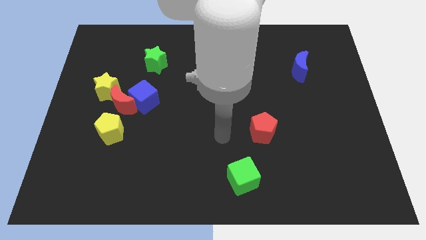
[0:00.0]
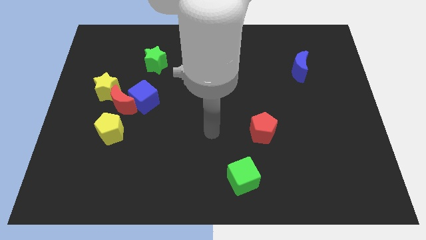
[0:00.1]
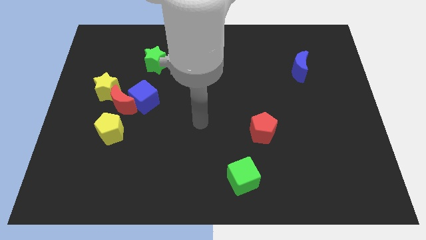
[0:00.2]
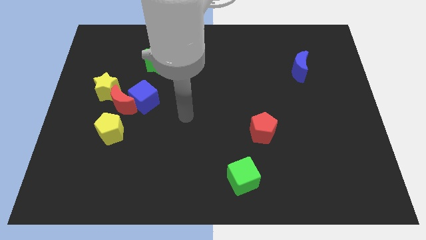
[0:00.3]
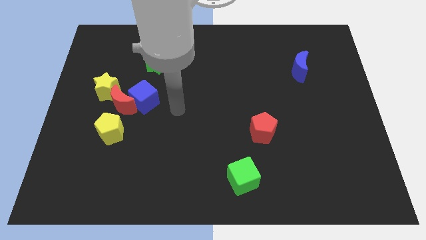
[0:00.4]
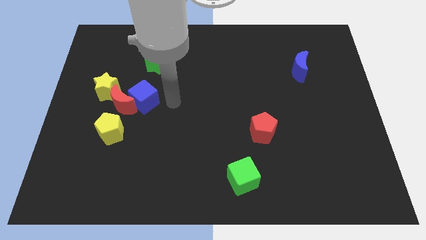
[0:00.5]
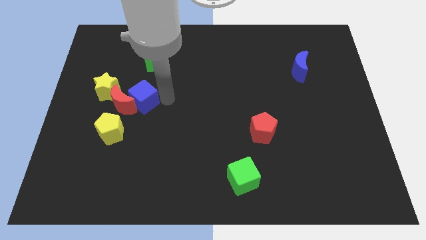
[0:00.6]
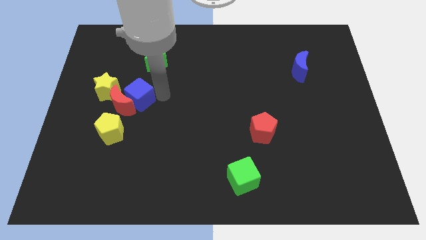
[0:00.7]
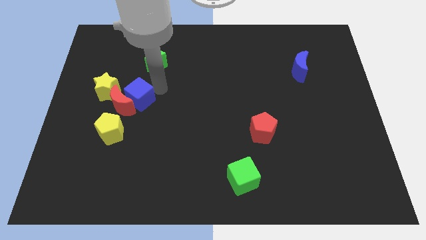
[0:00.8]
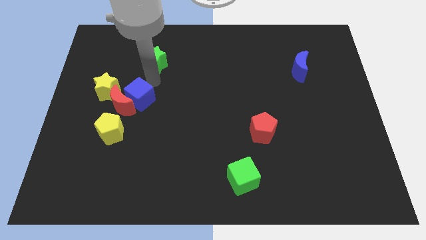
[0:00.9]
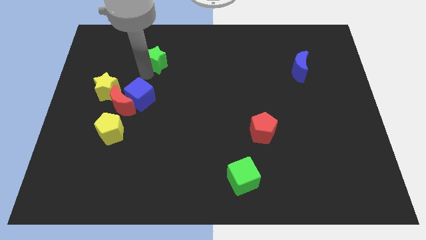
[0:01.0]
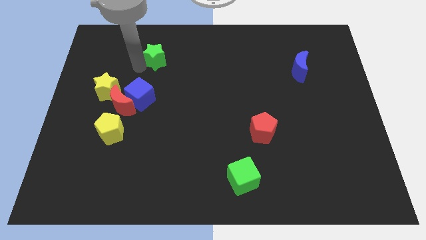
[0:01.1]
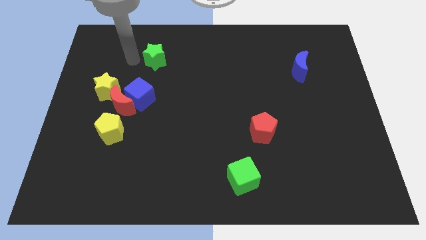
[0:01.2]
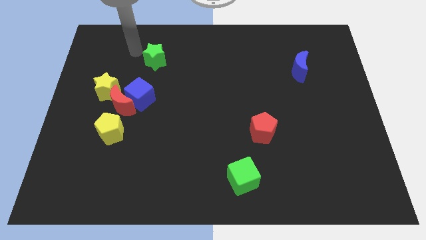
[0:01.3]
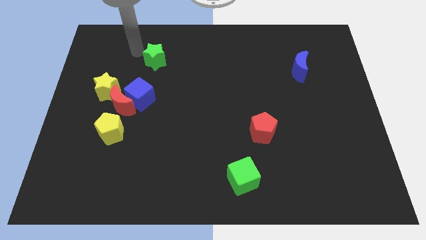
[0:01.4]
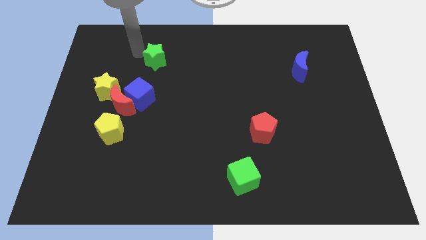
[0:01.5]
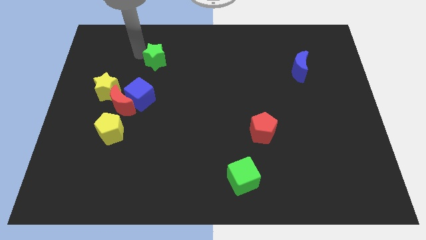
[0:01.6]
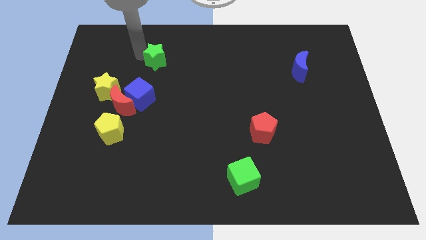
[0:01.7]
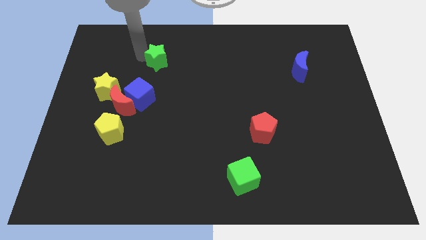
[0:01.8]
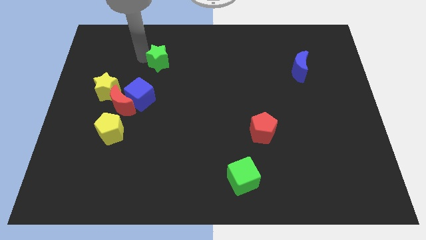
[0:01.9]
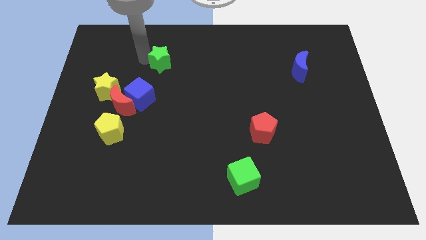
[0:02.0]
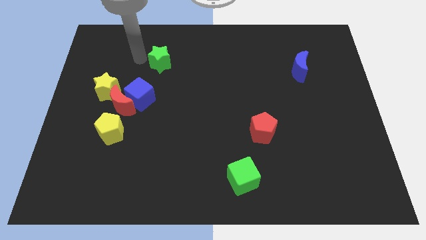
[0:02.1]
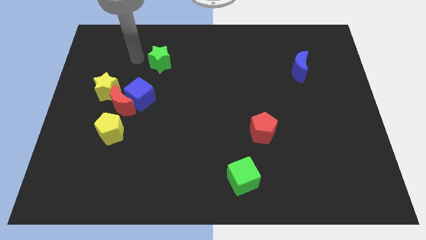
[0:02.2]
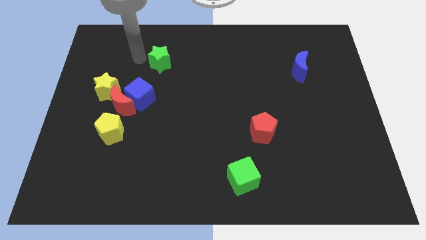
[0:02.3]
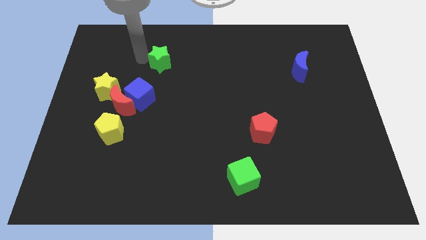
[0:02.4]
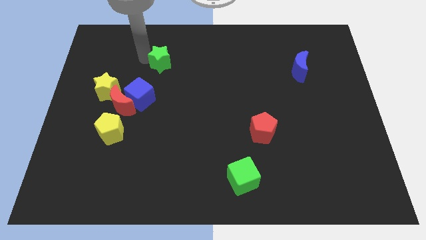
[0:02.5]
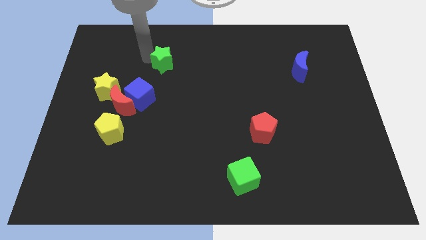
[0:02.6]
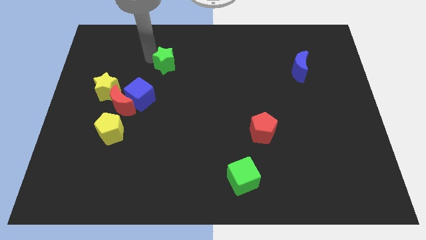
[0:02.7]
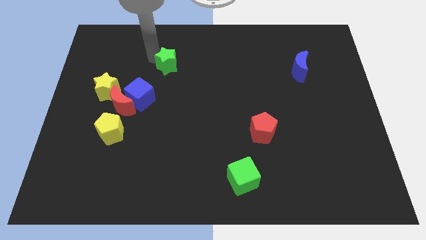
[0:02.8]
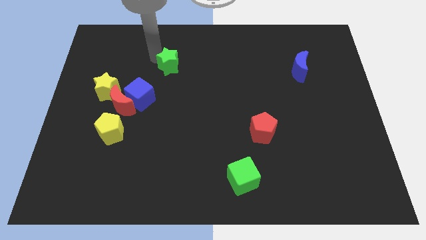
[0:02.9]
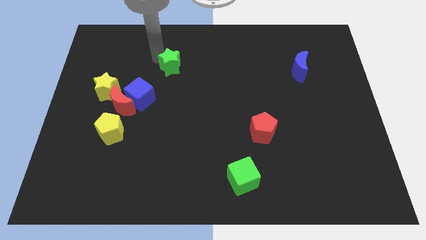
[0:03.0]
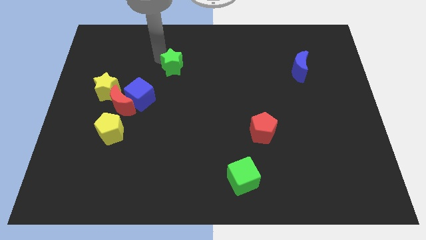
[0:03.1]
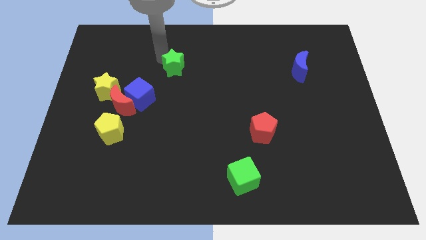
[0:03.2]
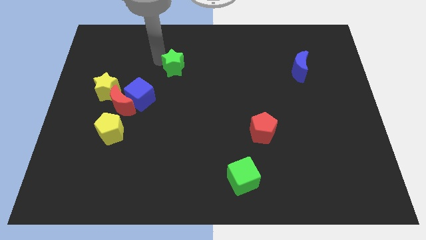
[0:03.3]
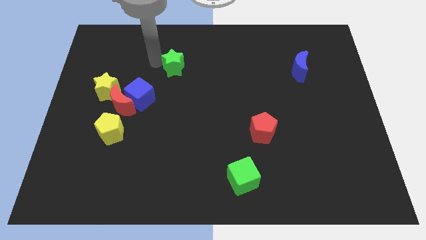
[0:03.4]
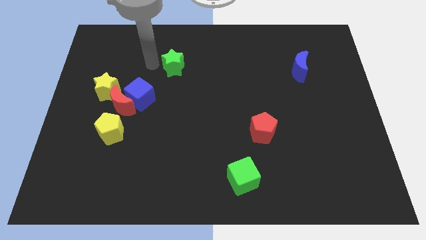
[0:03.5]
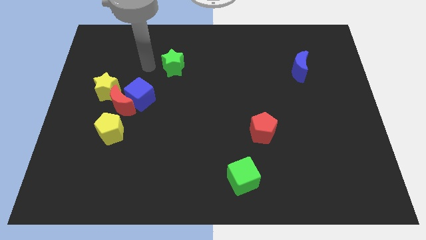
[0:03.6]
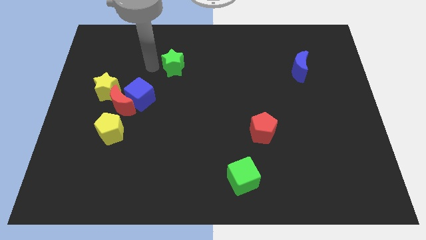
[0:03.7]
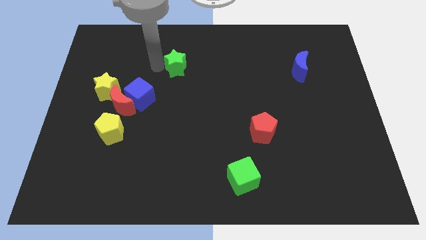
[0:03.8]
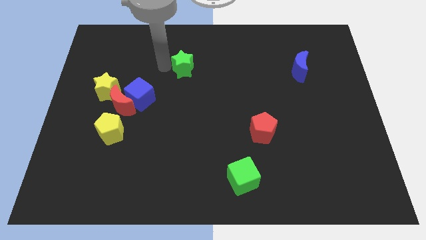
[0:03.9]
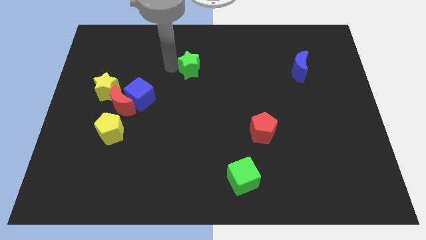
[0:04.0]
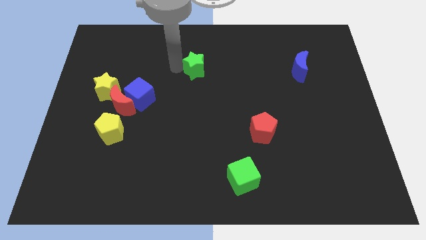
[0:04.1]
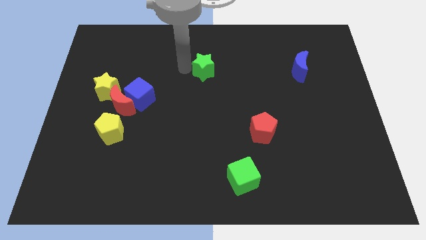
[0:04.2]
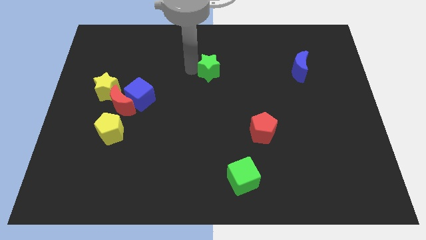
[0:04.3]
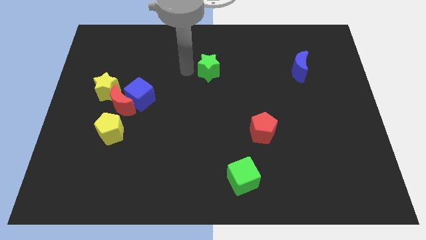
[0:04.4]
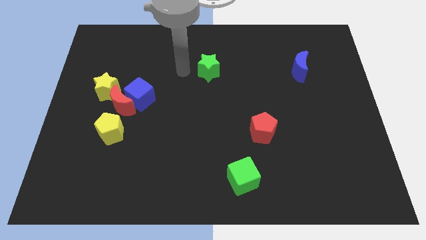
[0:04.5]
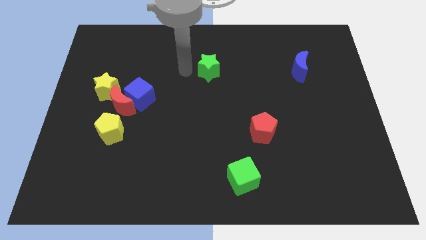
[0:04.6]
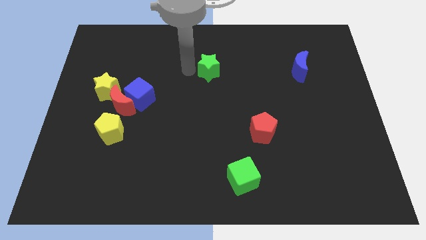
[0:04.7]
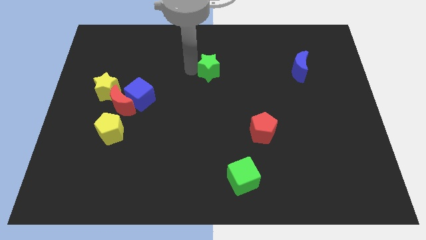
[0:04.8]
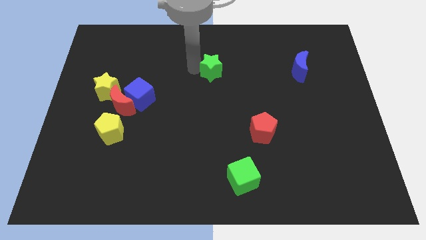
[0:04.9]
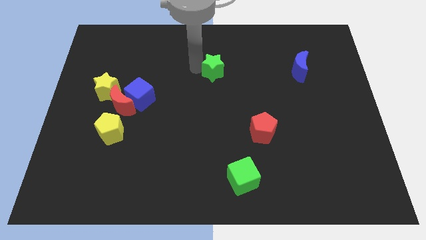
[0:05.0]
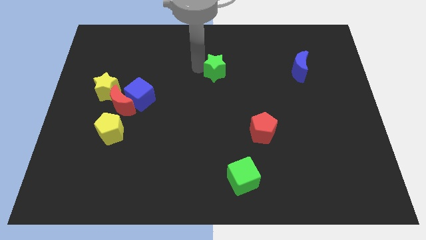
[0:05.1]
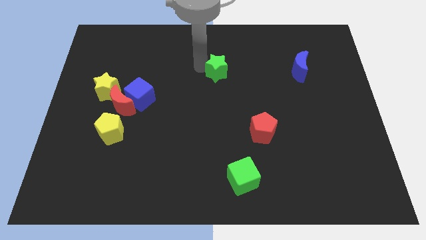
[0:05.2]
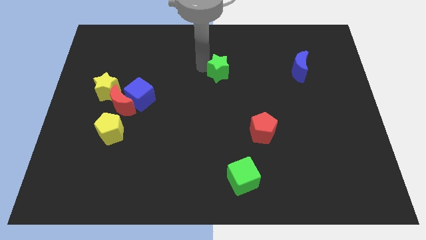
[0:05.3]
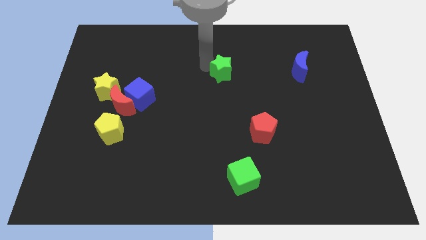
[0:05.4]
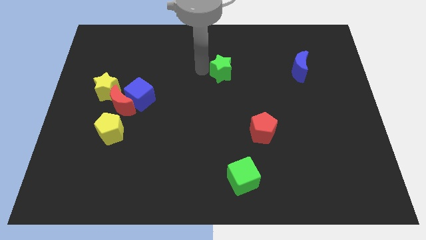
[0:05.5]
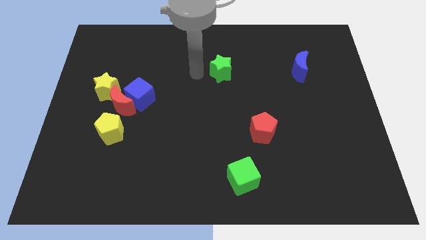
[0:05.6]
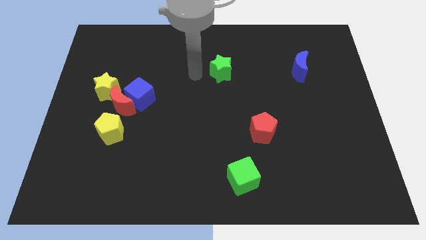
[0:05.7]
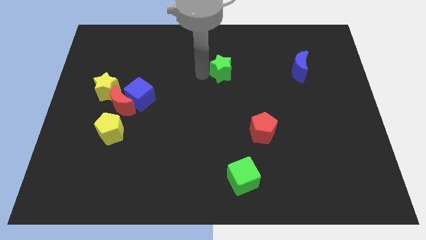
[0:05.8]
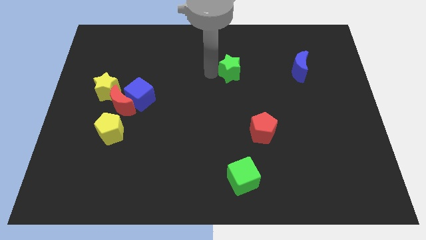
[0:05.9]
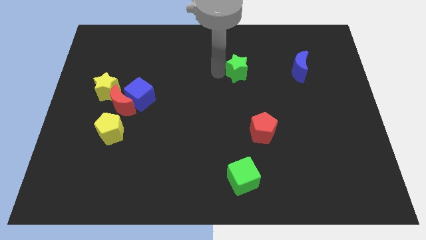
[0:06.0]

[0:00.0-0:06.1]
slide the green star to the right

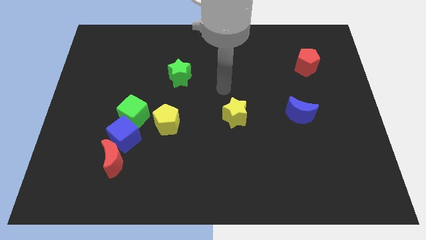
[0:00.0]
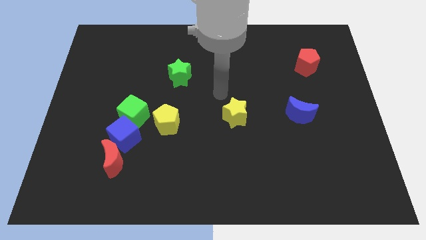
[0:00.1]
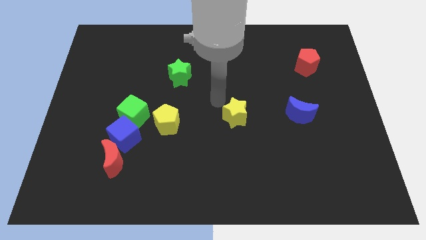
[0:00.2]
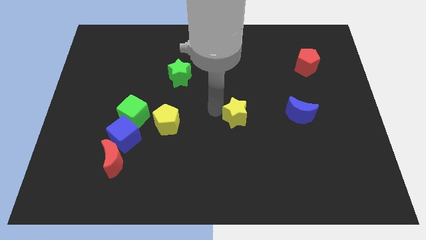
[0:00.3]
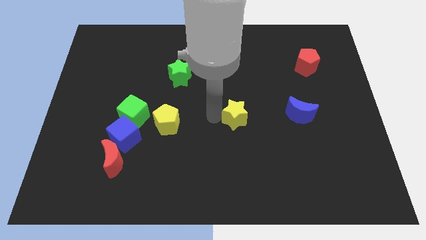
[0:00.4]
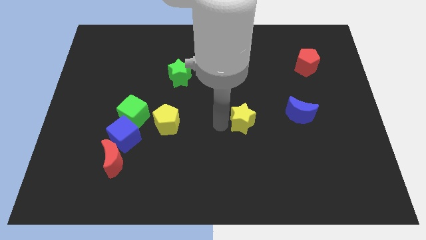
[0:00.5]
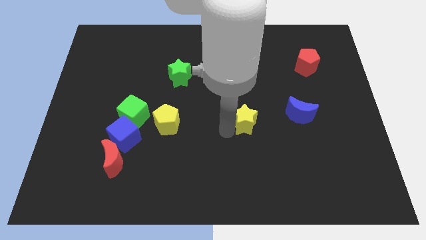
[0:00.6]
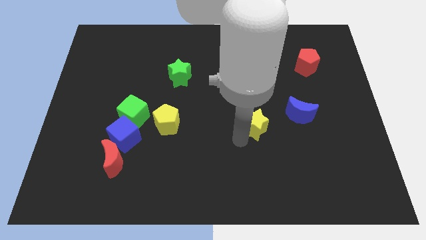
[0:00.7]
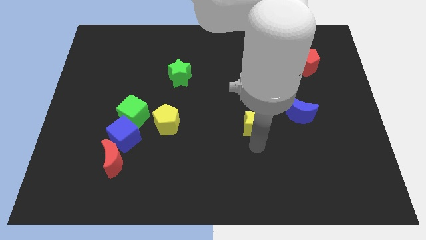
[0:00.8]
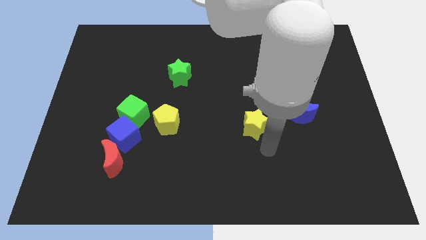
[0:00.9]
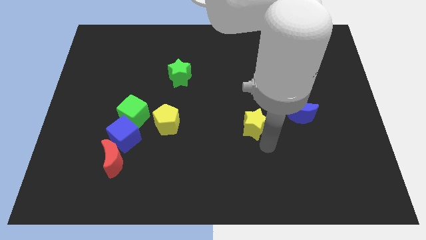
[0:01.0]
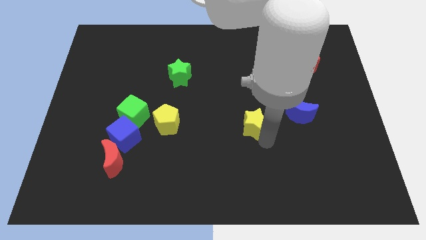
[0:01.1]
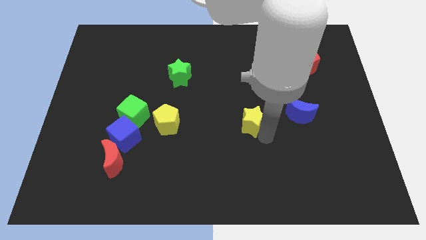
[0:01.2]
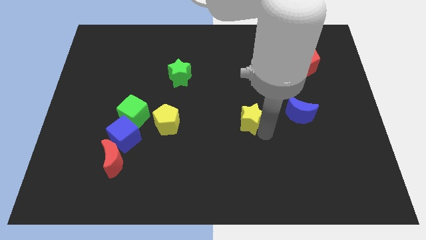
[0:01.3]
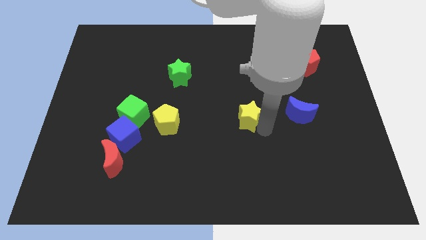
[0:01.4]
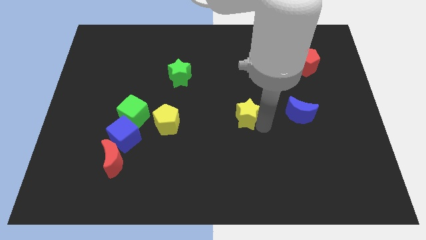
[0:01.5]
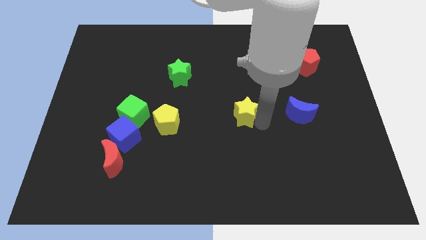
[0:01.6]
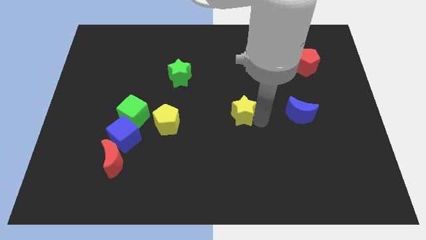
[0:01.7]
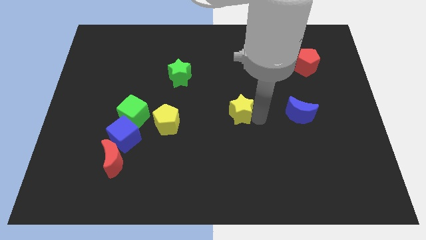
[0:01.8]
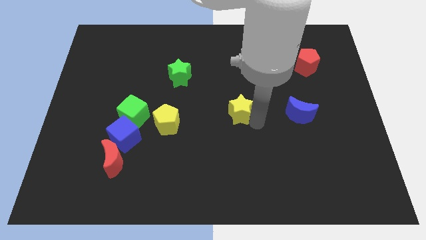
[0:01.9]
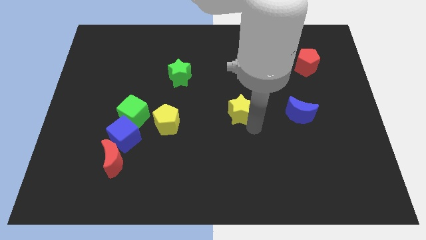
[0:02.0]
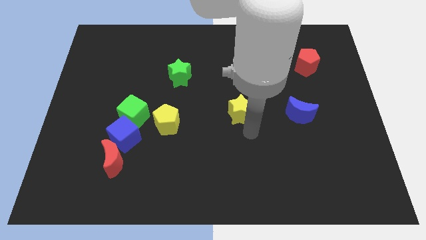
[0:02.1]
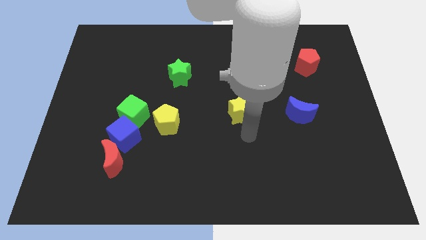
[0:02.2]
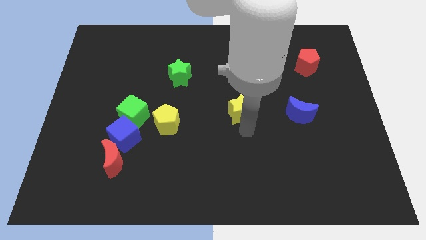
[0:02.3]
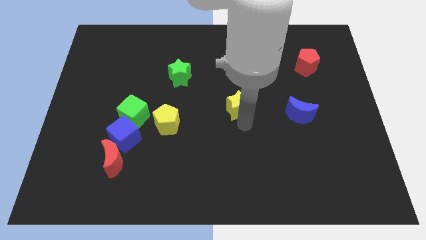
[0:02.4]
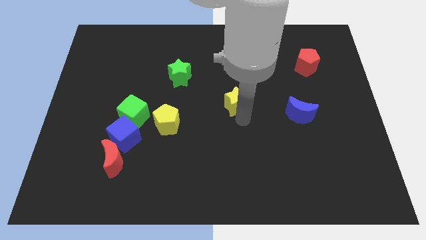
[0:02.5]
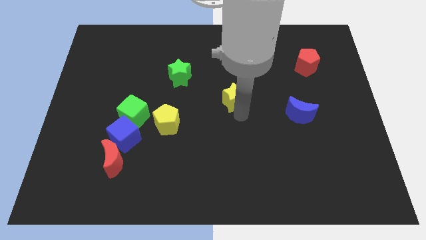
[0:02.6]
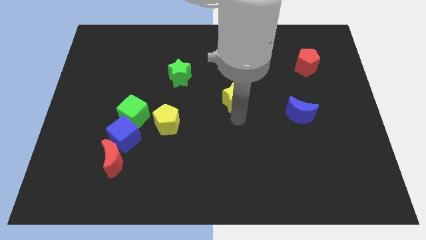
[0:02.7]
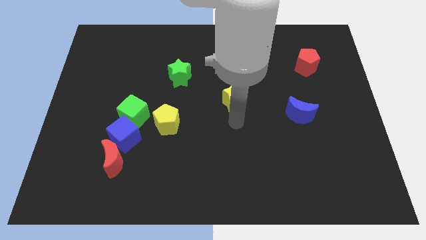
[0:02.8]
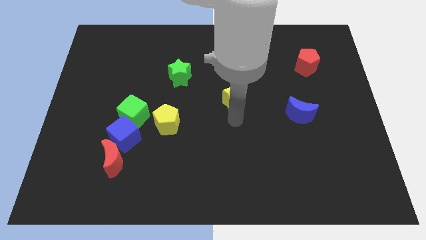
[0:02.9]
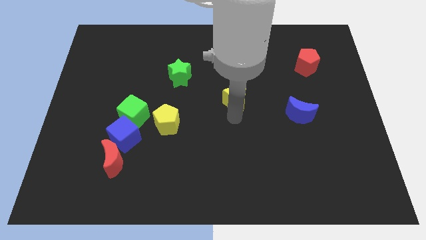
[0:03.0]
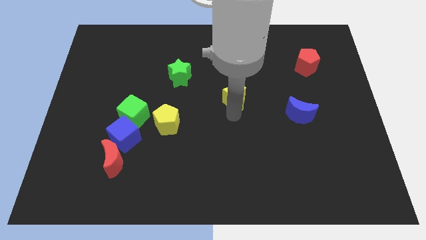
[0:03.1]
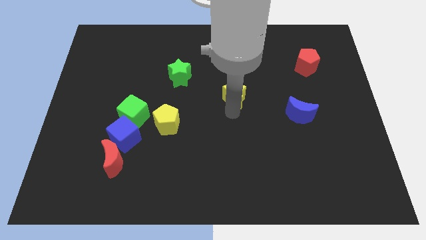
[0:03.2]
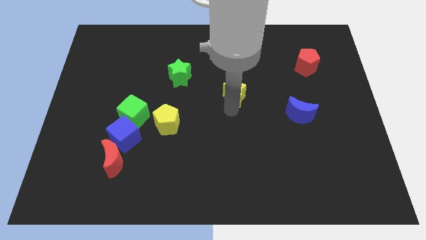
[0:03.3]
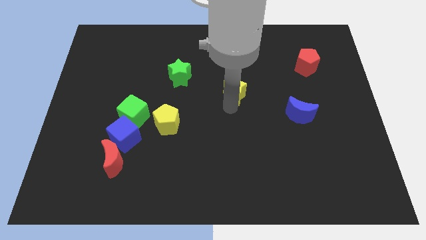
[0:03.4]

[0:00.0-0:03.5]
push the yellow star slightly up
